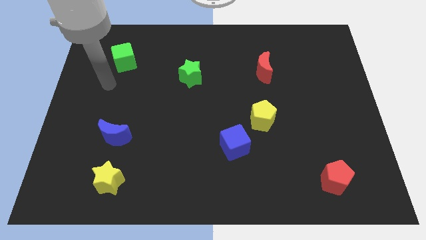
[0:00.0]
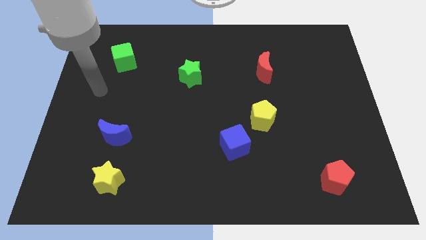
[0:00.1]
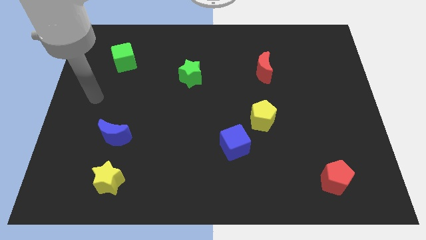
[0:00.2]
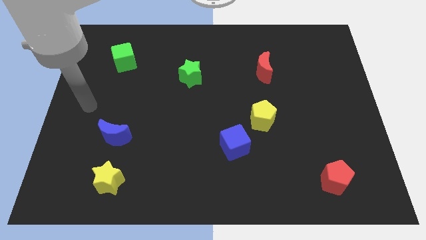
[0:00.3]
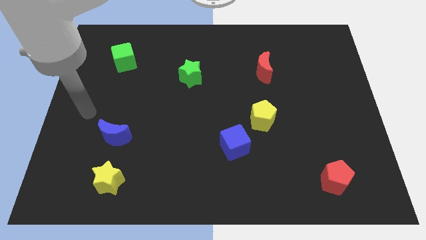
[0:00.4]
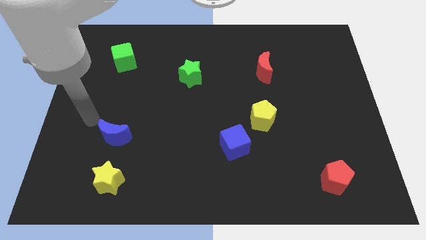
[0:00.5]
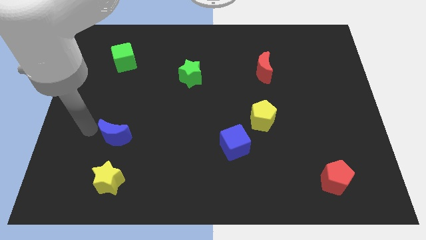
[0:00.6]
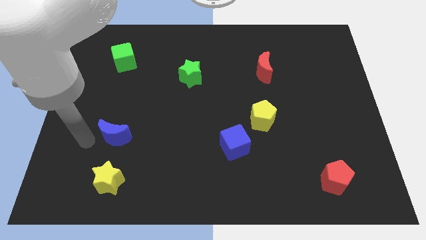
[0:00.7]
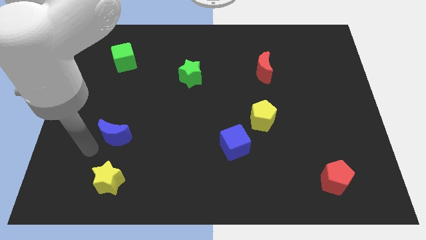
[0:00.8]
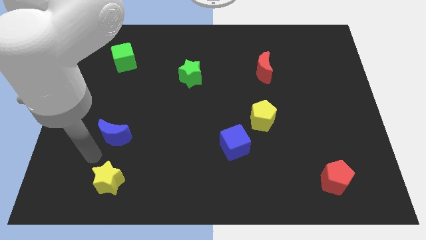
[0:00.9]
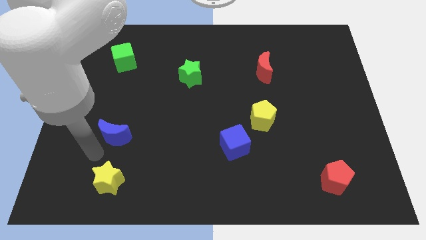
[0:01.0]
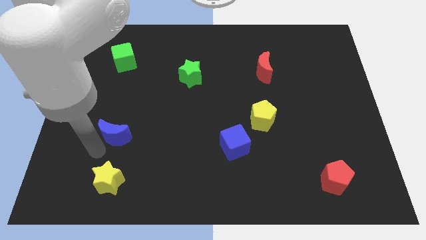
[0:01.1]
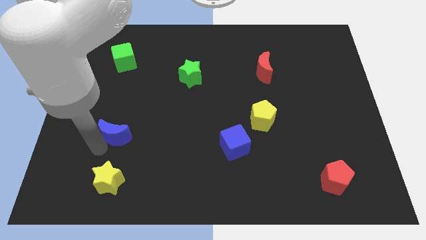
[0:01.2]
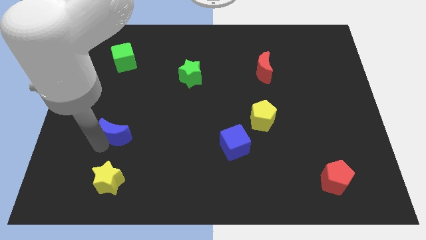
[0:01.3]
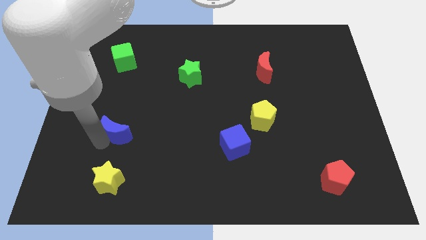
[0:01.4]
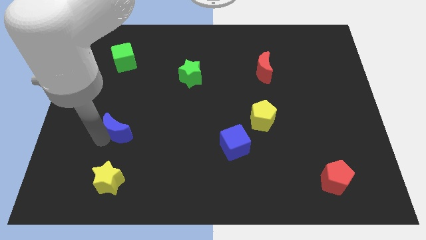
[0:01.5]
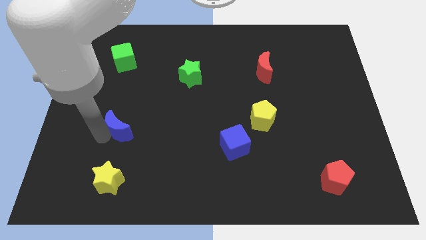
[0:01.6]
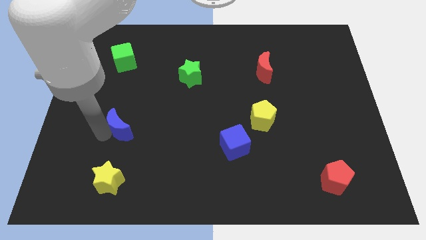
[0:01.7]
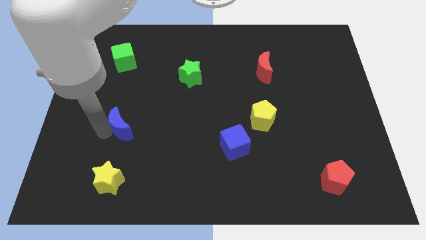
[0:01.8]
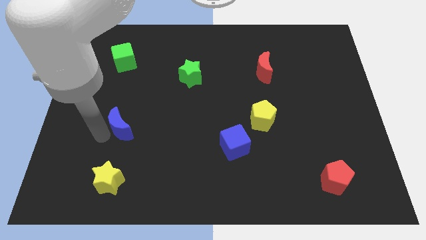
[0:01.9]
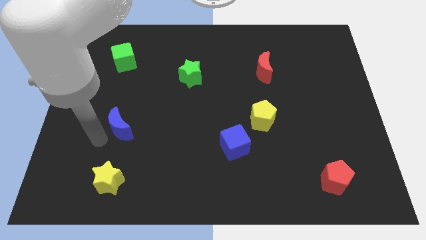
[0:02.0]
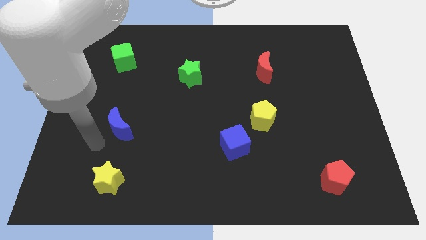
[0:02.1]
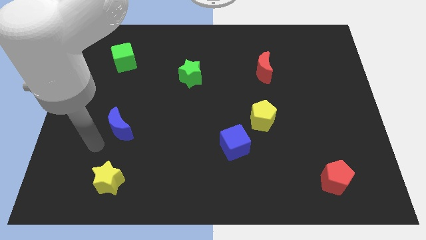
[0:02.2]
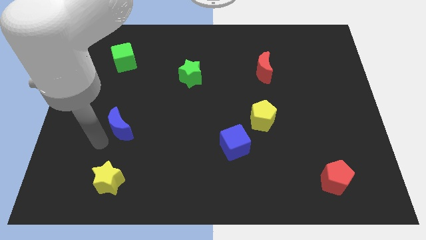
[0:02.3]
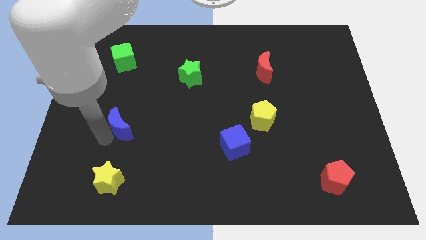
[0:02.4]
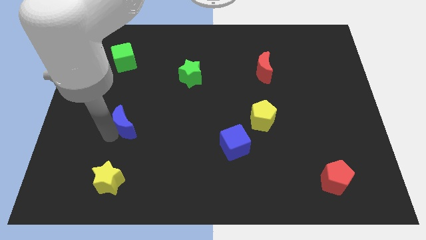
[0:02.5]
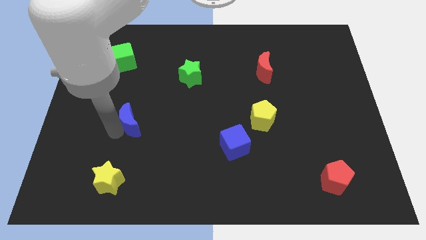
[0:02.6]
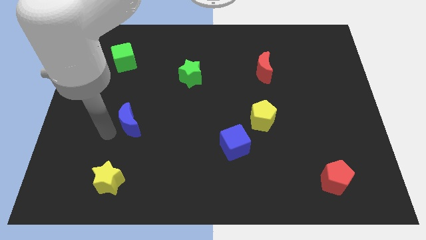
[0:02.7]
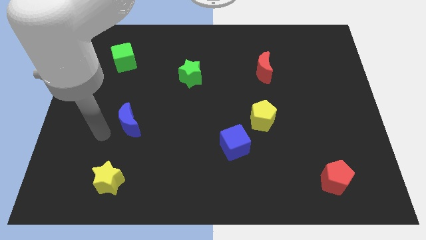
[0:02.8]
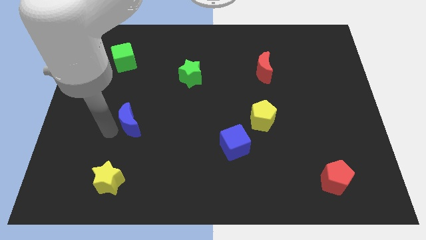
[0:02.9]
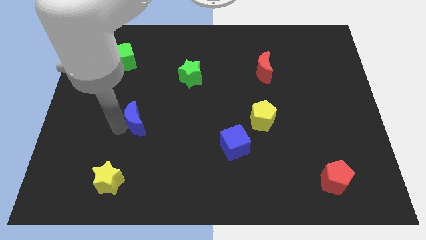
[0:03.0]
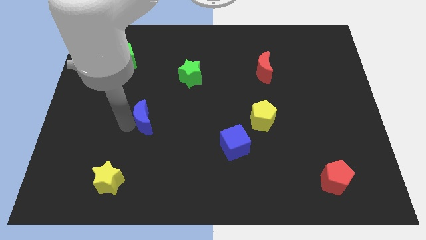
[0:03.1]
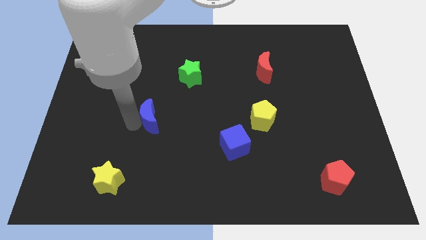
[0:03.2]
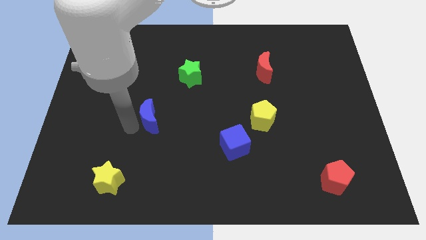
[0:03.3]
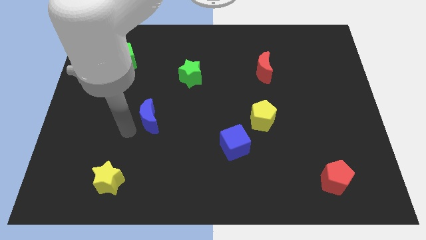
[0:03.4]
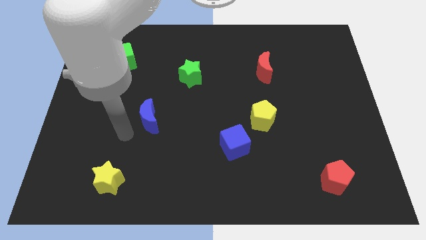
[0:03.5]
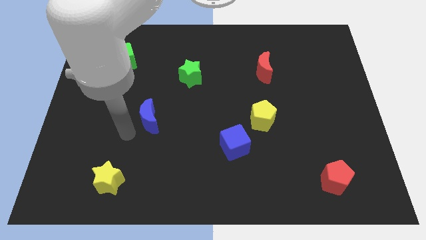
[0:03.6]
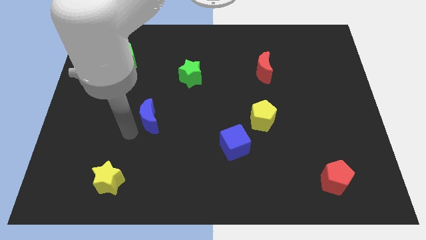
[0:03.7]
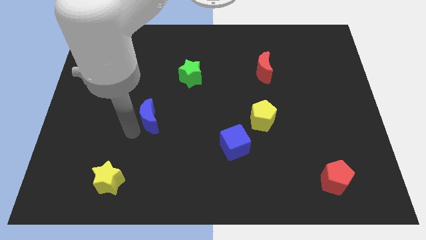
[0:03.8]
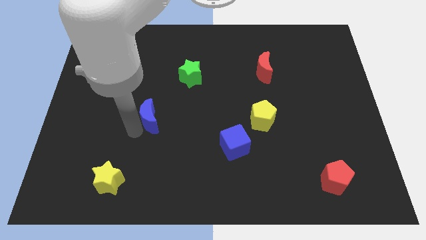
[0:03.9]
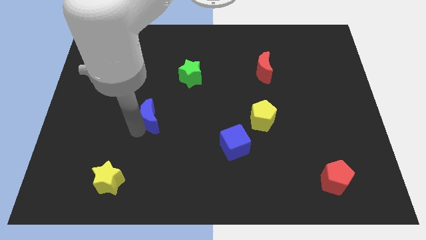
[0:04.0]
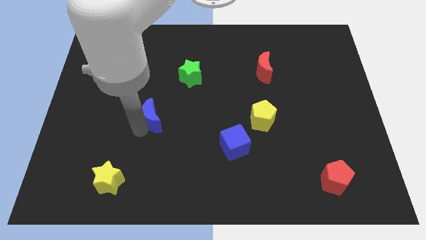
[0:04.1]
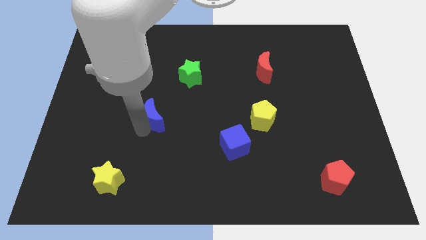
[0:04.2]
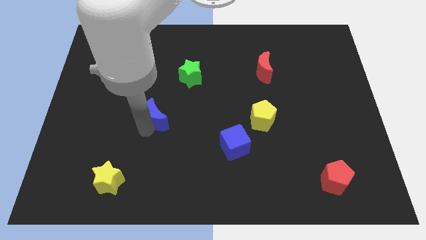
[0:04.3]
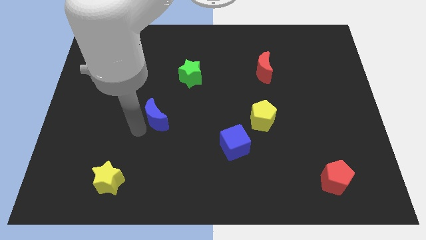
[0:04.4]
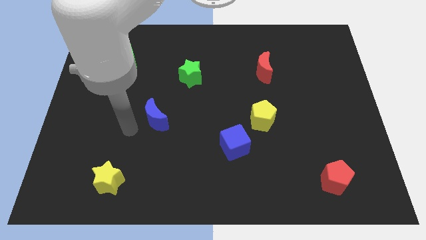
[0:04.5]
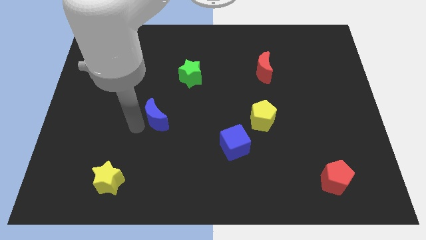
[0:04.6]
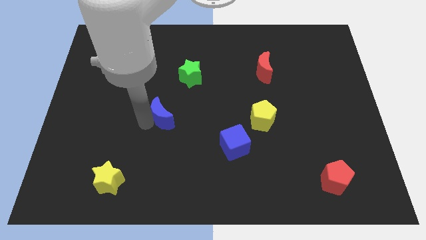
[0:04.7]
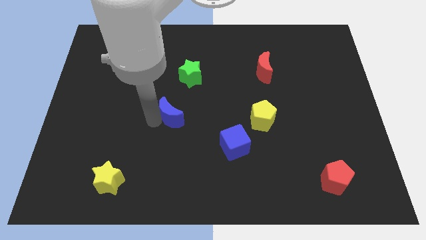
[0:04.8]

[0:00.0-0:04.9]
put the blue moon to the center

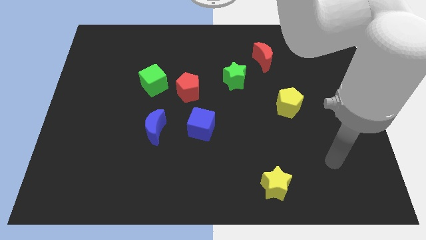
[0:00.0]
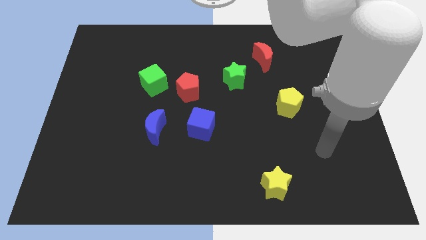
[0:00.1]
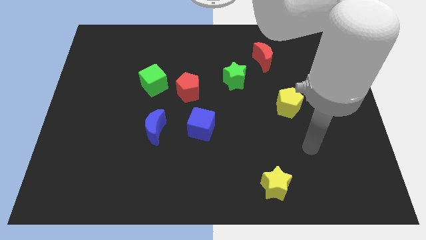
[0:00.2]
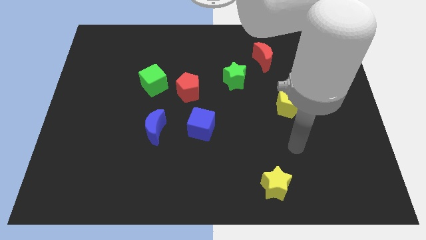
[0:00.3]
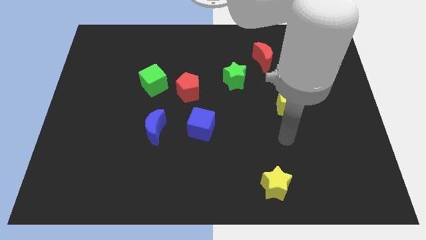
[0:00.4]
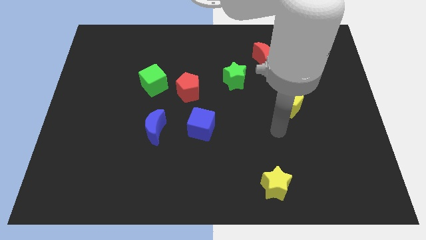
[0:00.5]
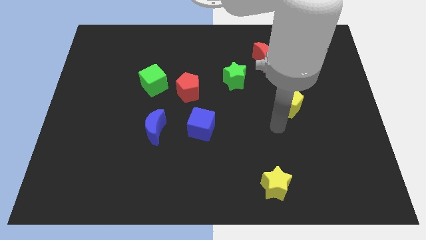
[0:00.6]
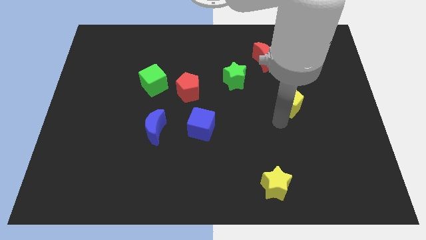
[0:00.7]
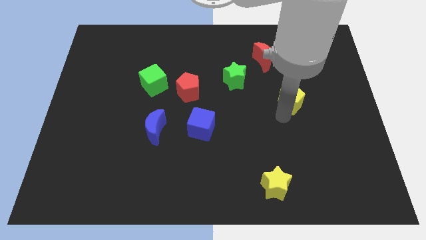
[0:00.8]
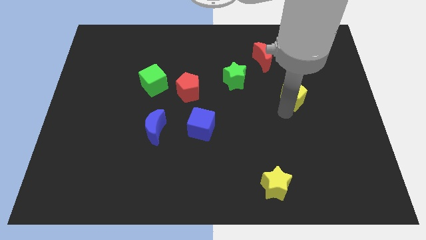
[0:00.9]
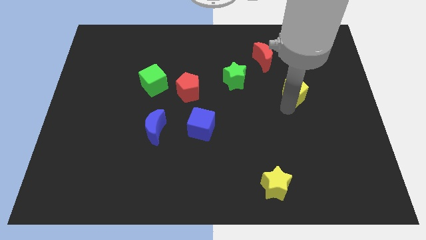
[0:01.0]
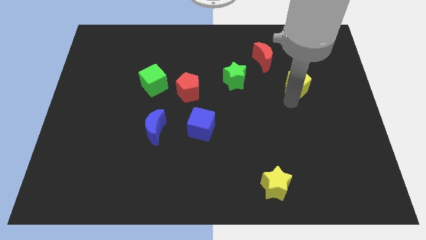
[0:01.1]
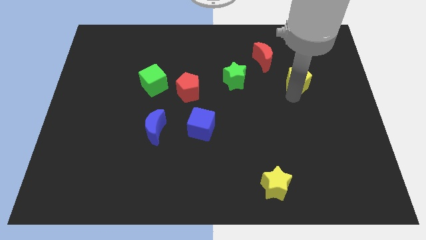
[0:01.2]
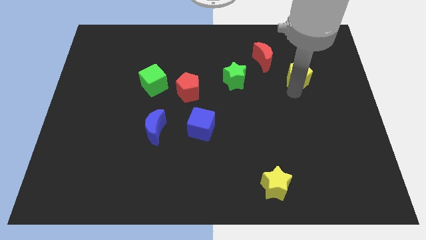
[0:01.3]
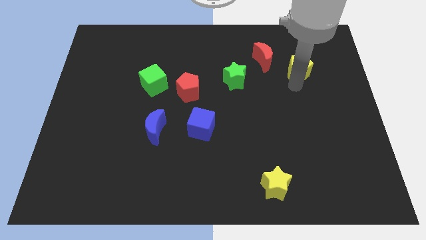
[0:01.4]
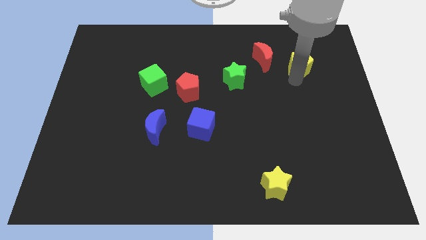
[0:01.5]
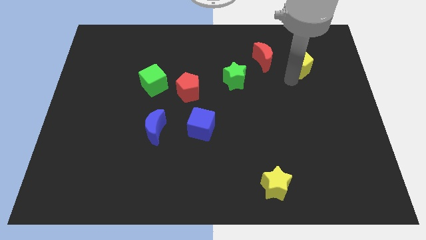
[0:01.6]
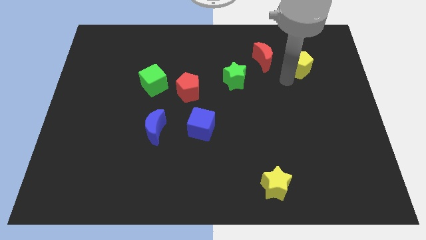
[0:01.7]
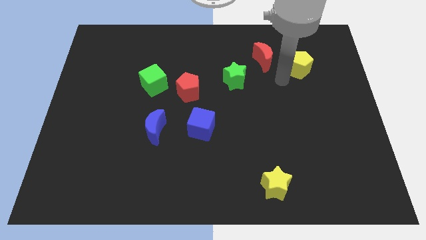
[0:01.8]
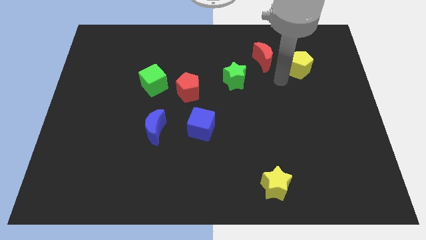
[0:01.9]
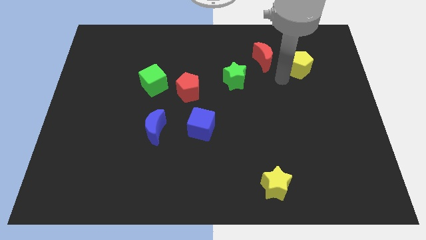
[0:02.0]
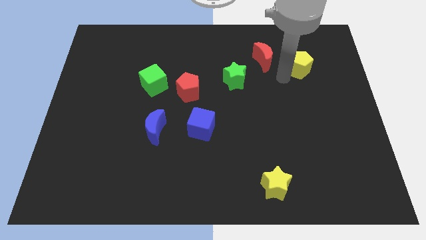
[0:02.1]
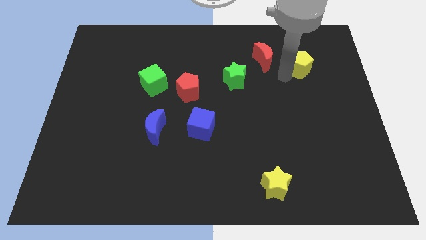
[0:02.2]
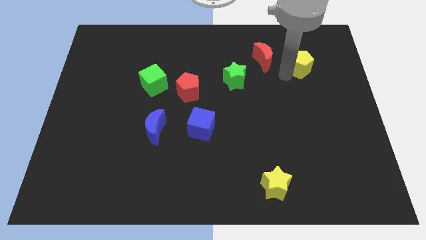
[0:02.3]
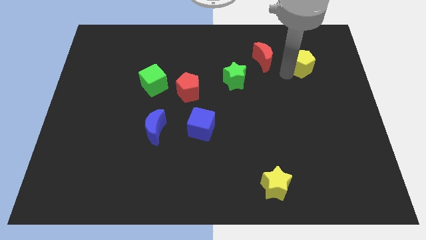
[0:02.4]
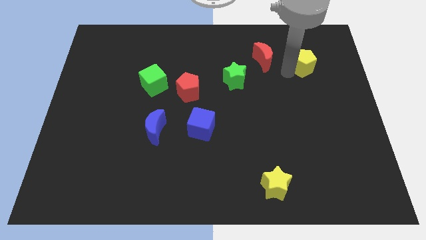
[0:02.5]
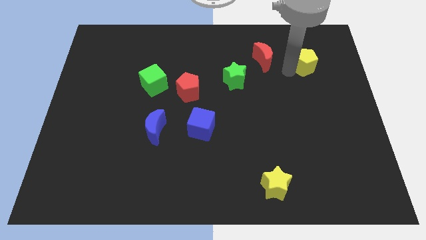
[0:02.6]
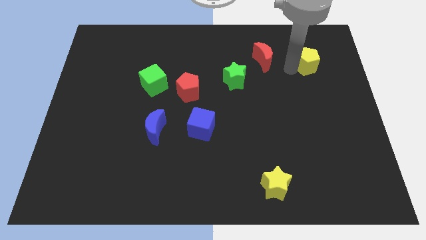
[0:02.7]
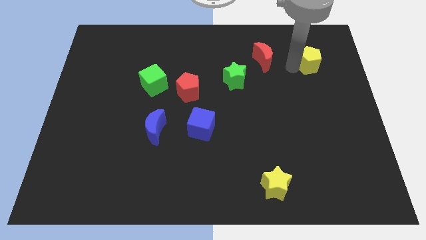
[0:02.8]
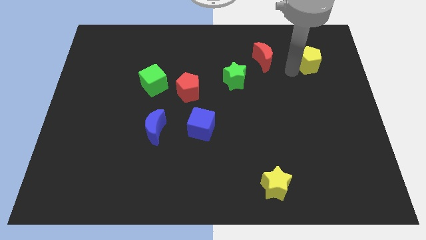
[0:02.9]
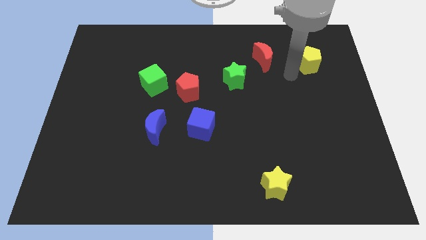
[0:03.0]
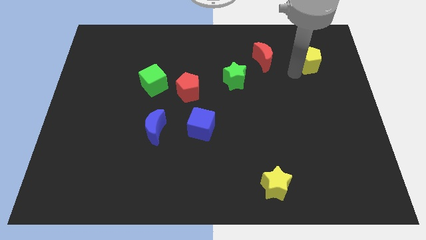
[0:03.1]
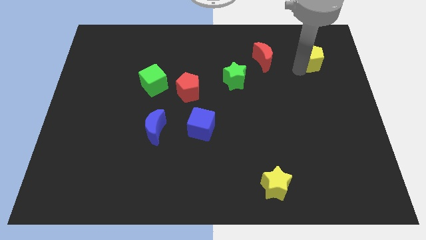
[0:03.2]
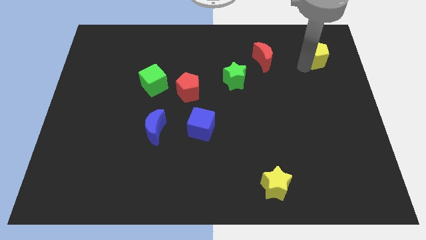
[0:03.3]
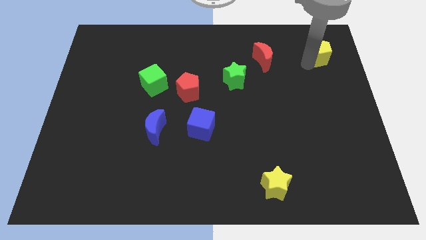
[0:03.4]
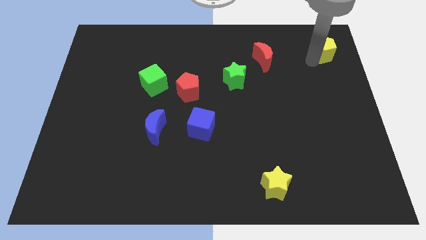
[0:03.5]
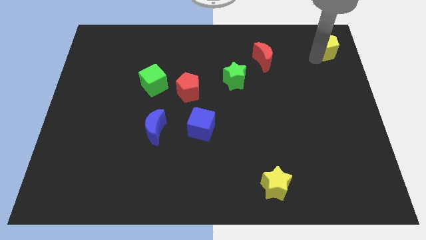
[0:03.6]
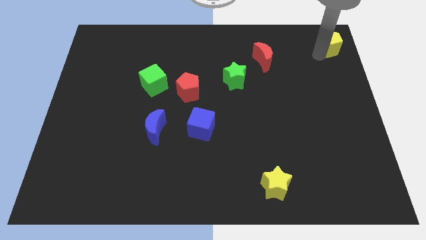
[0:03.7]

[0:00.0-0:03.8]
slide the yellow pentagon to the top right of the board
